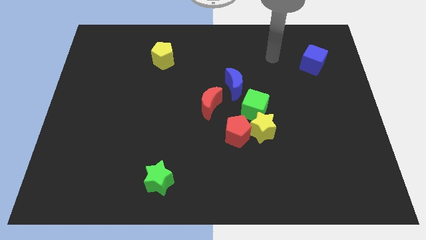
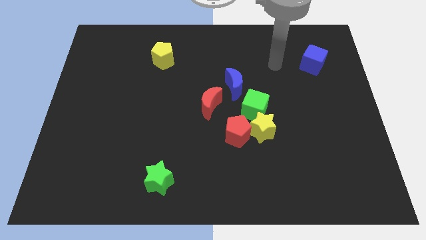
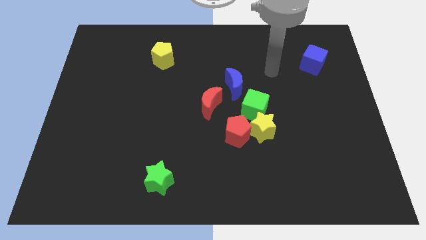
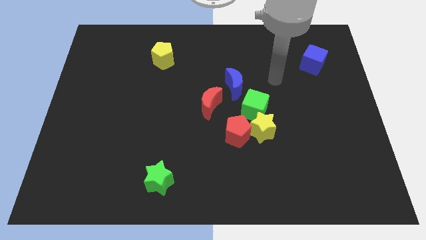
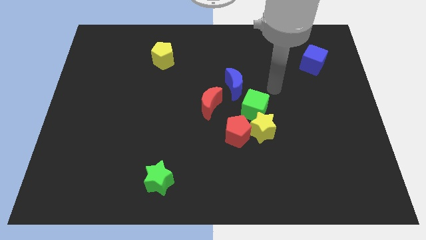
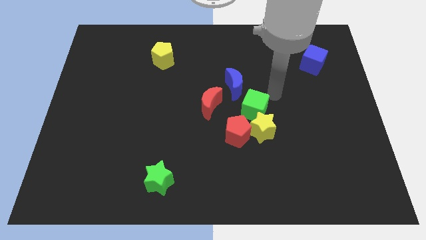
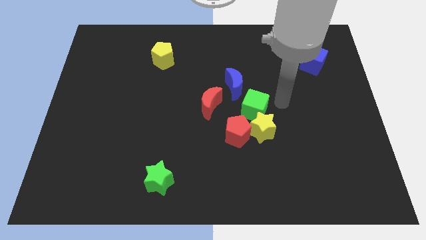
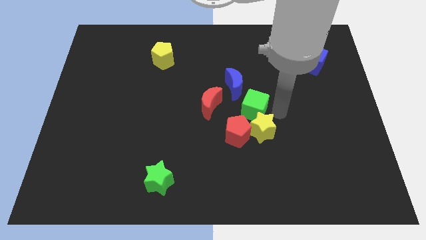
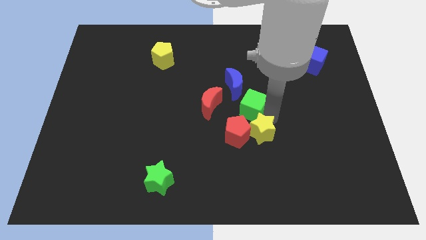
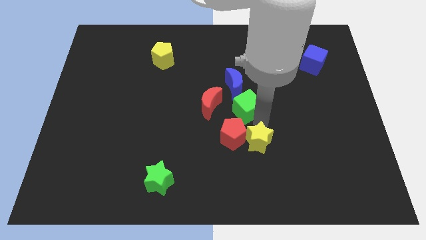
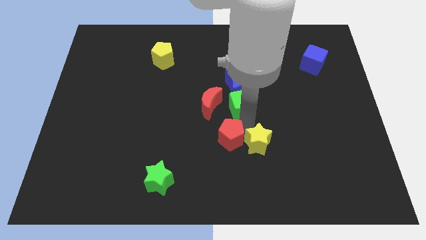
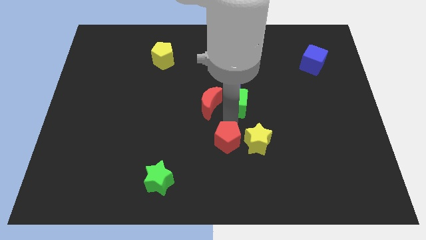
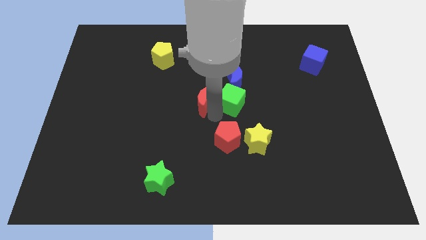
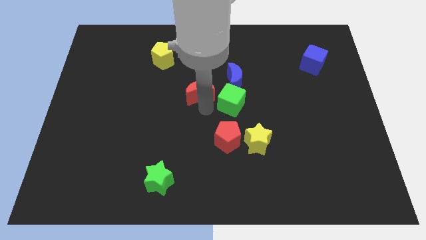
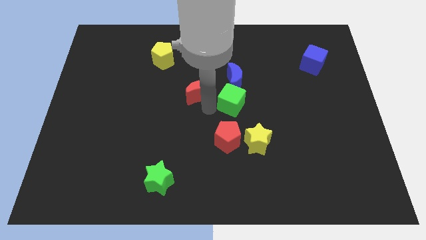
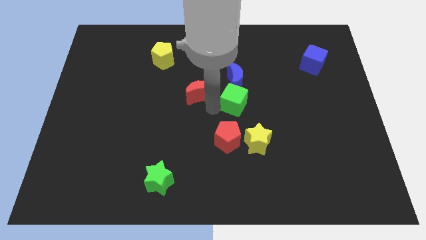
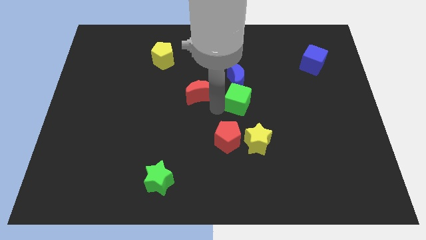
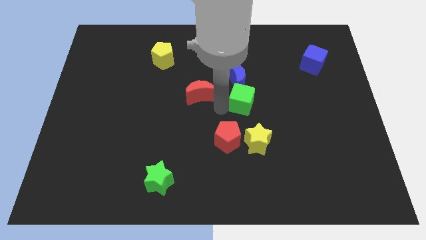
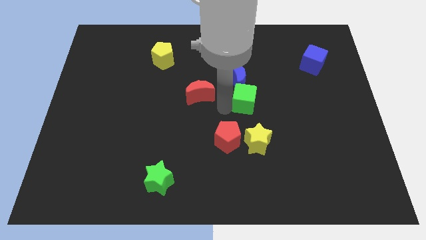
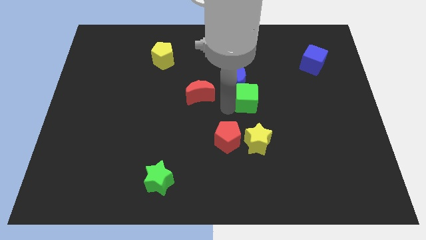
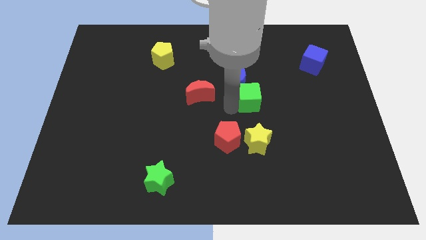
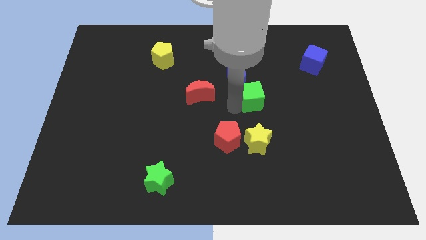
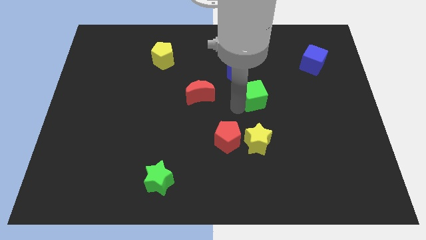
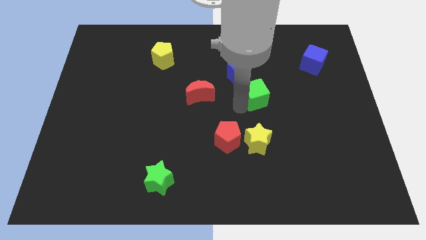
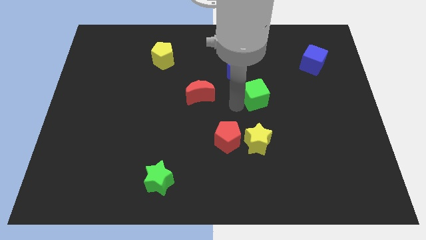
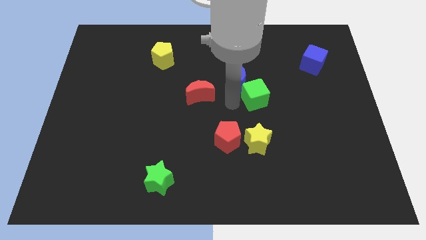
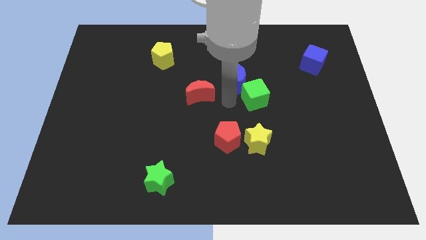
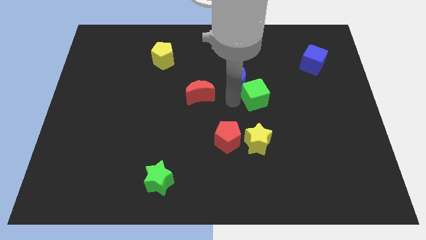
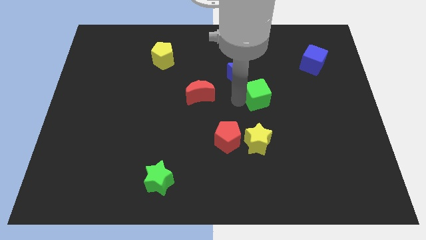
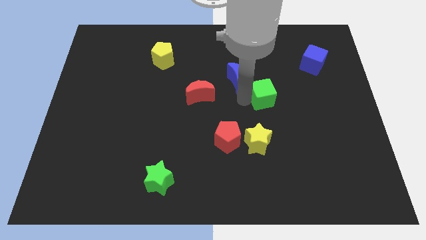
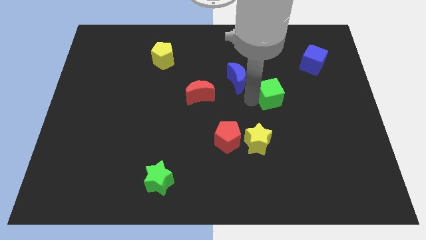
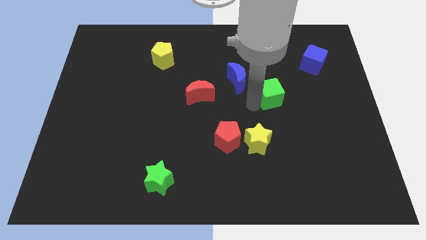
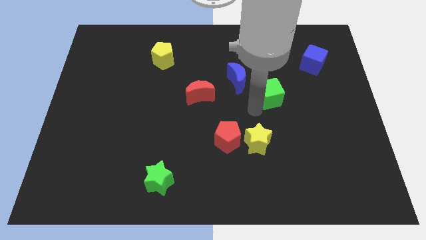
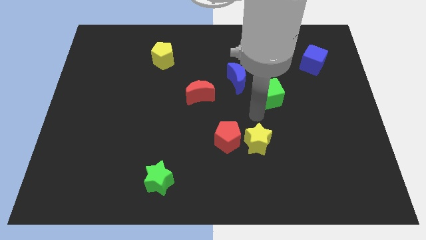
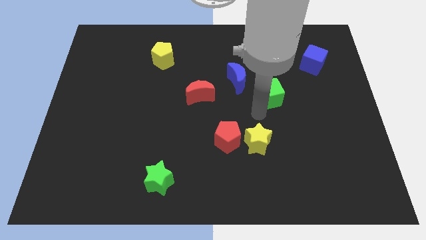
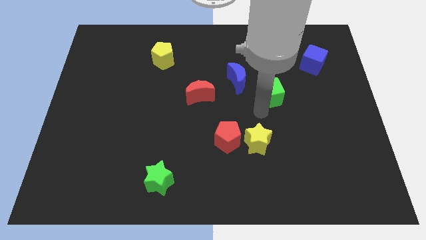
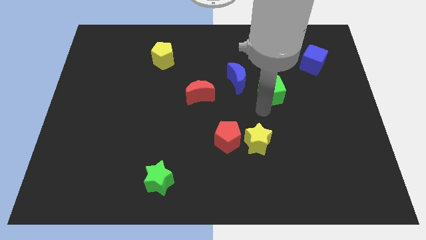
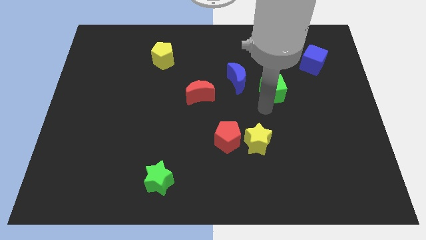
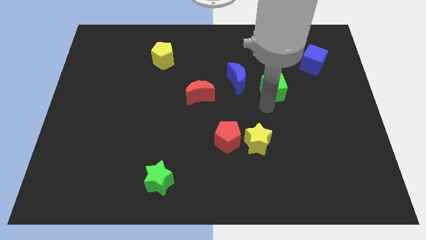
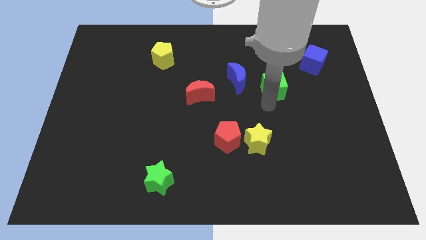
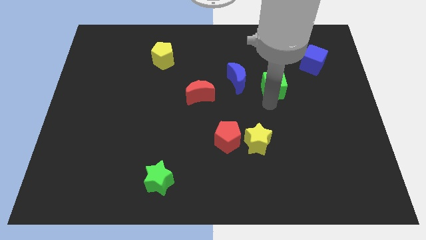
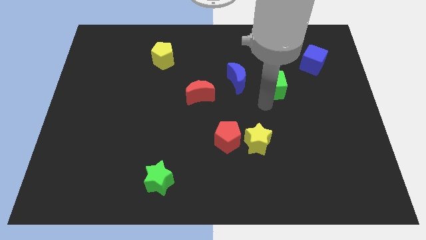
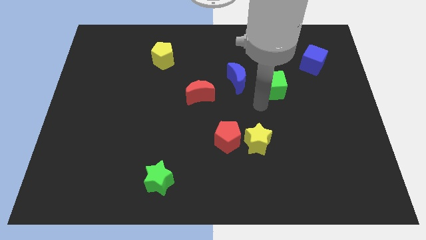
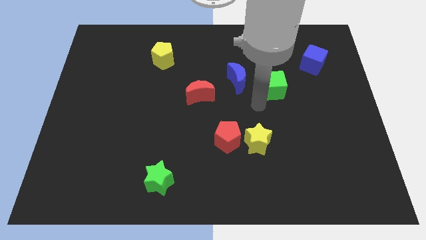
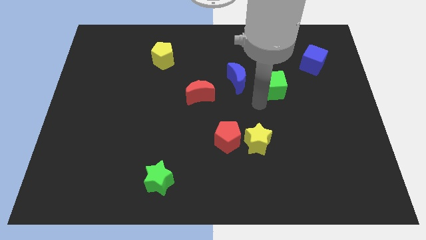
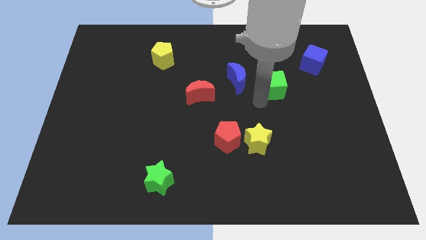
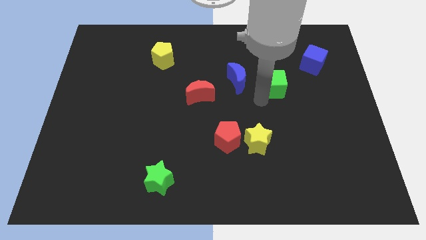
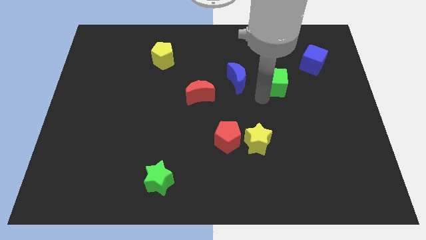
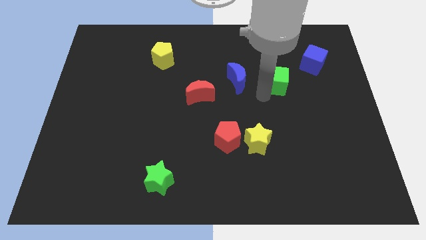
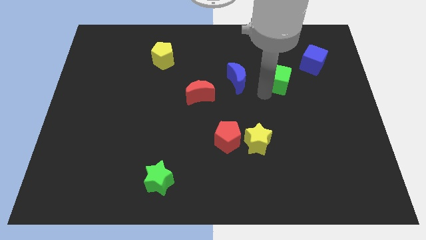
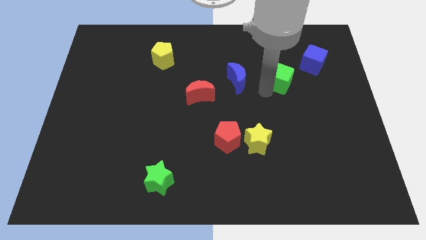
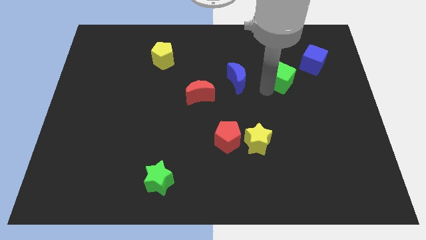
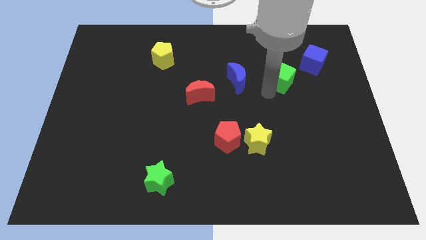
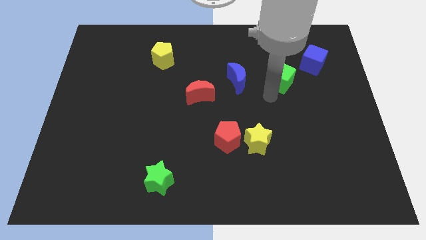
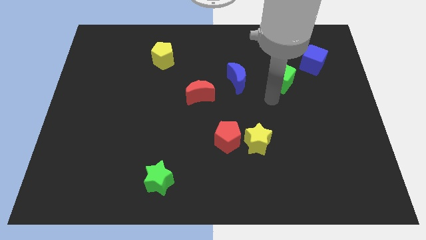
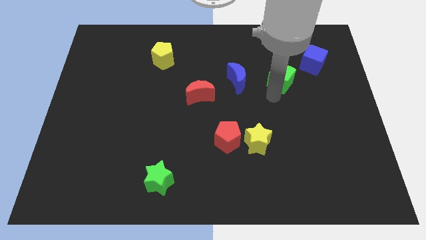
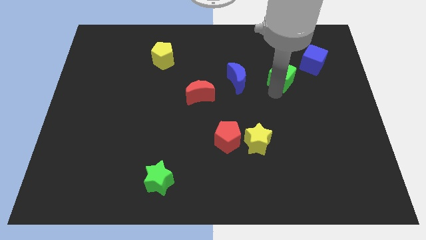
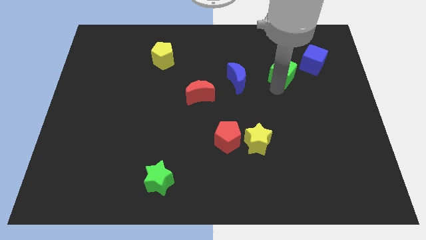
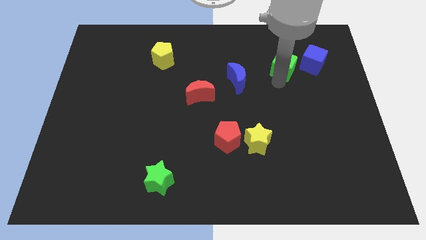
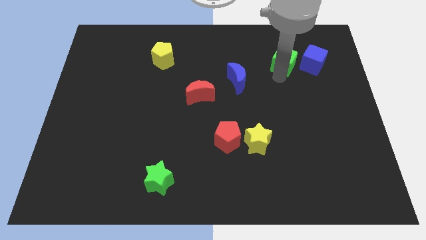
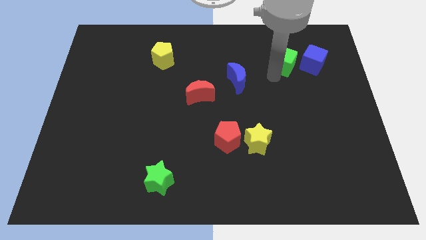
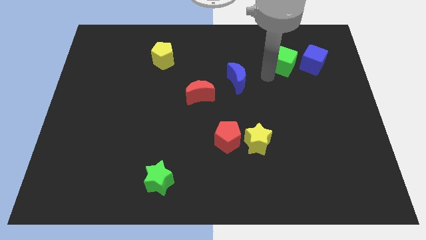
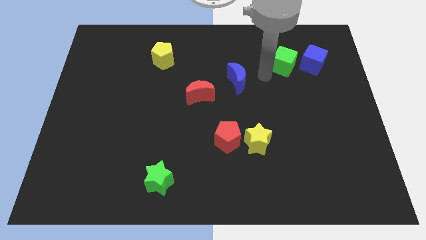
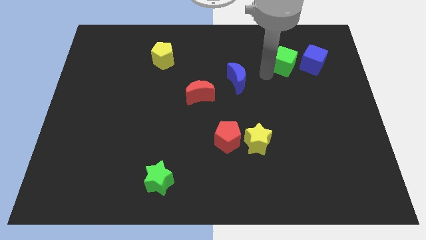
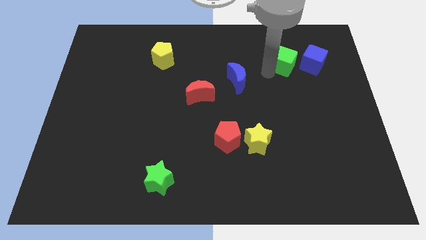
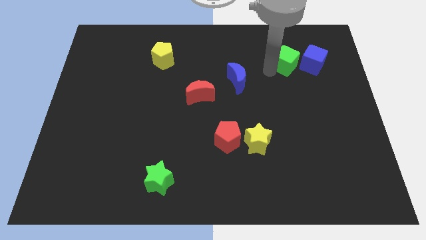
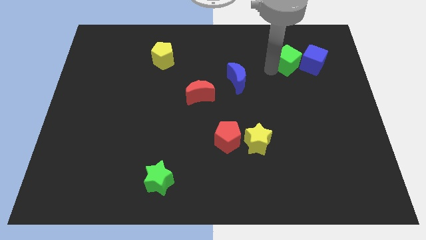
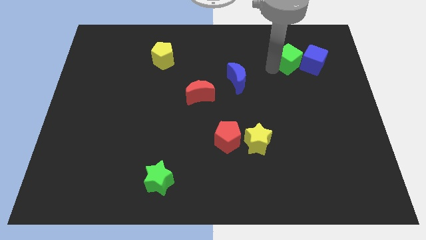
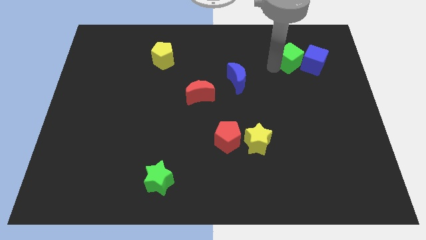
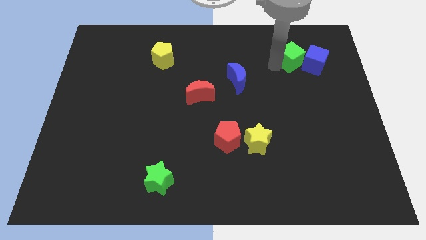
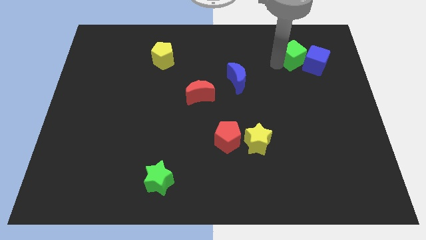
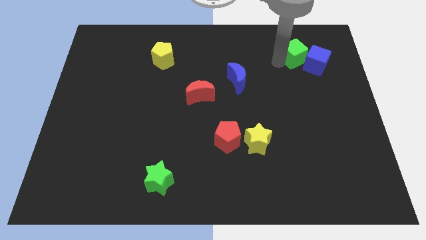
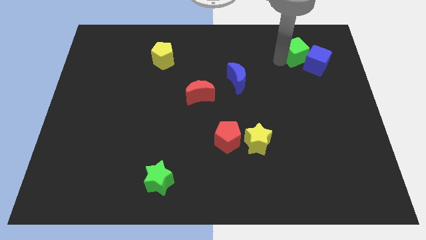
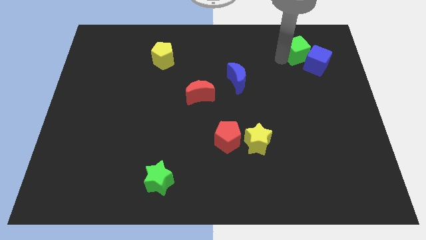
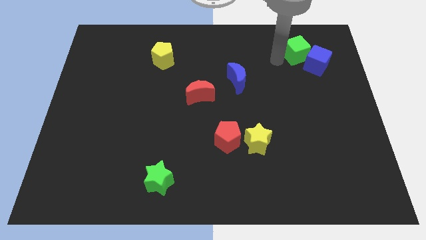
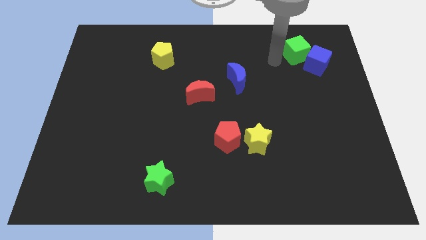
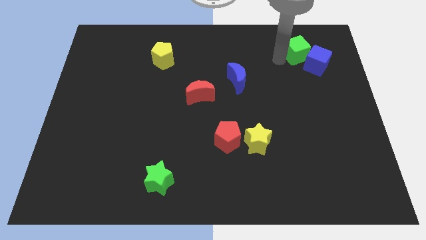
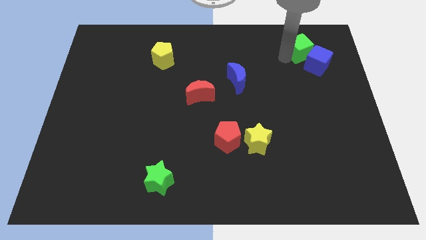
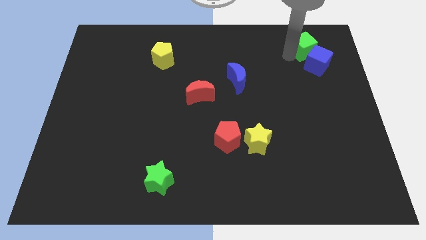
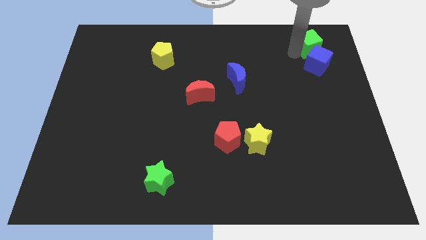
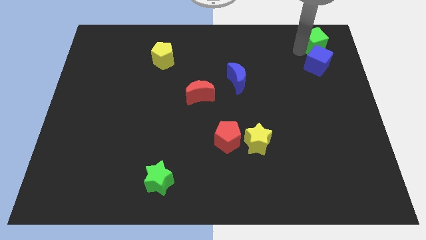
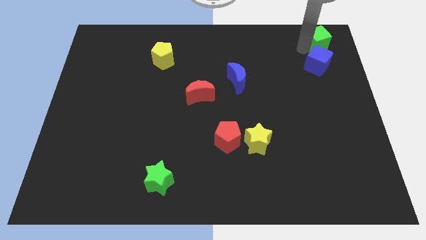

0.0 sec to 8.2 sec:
push the green cube to the top right corner
